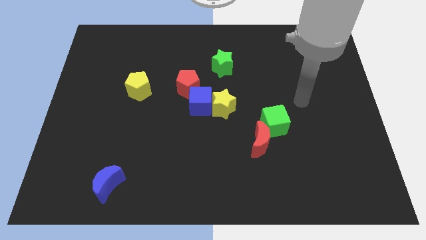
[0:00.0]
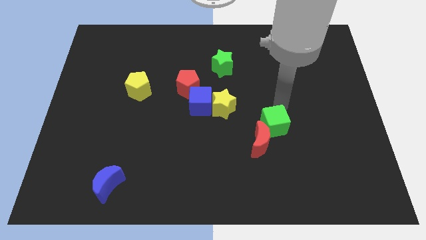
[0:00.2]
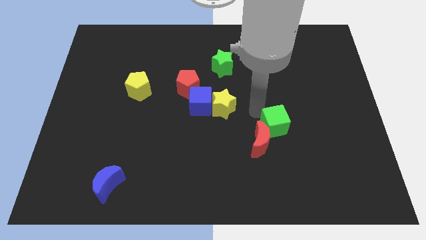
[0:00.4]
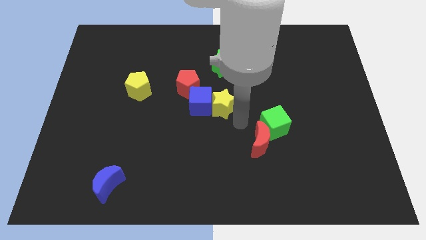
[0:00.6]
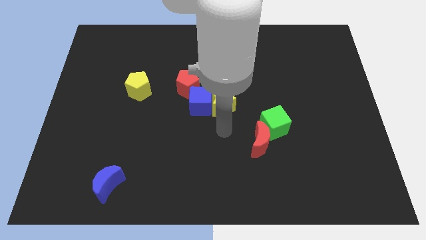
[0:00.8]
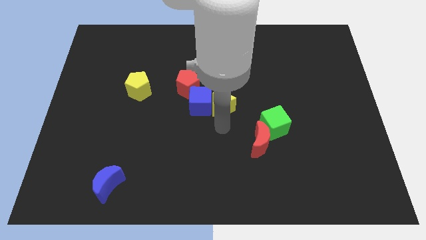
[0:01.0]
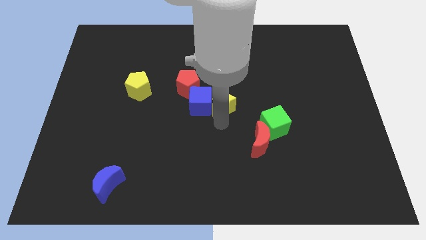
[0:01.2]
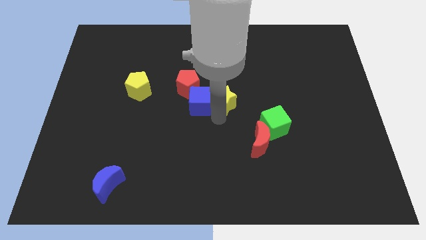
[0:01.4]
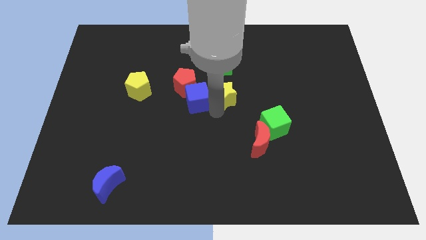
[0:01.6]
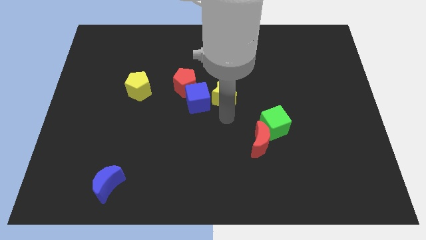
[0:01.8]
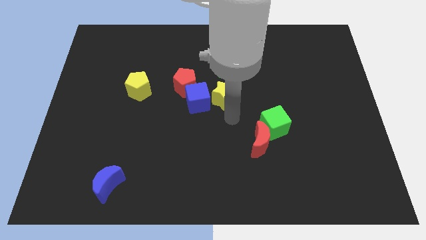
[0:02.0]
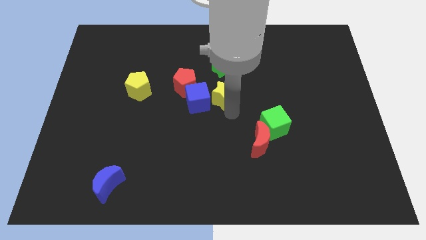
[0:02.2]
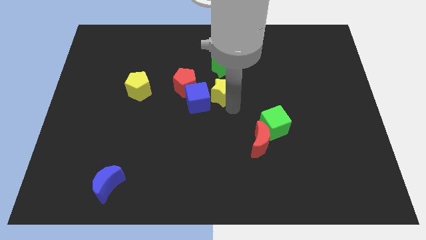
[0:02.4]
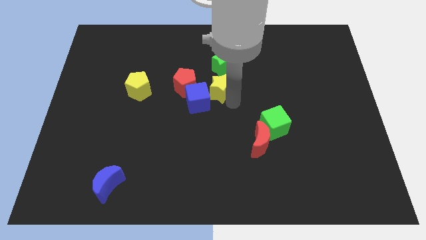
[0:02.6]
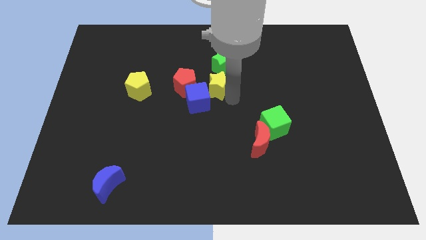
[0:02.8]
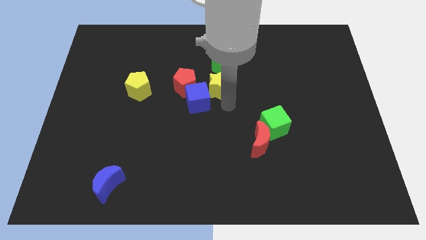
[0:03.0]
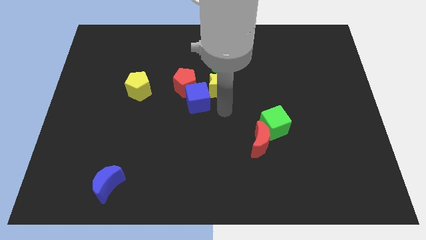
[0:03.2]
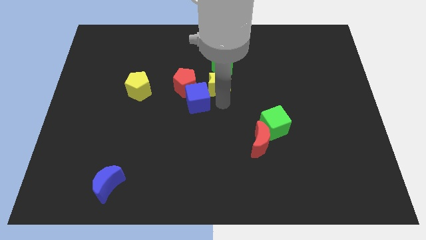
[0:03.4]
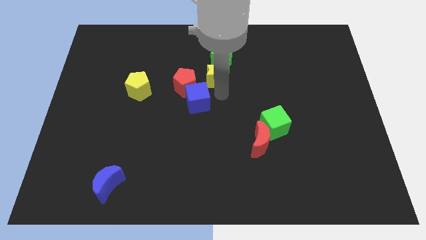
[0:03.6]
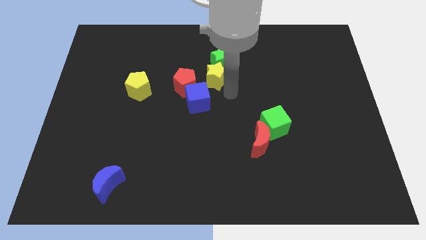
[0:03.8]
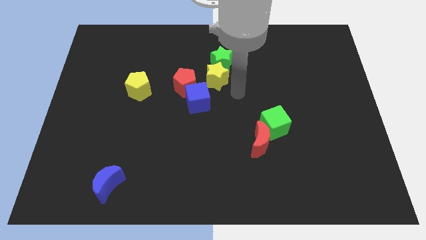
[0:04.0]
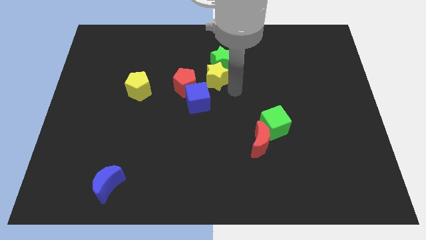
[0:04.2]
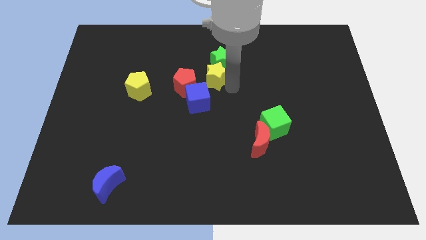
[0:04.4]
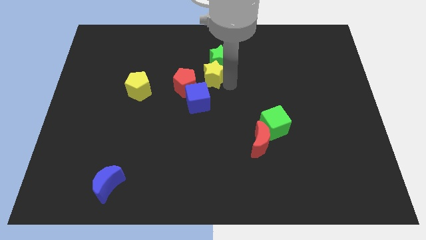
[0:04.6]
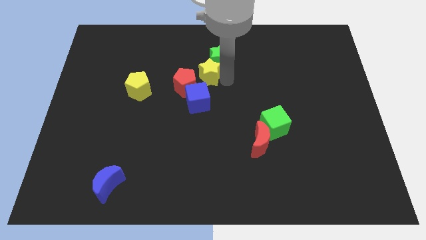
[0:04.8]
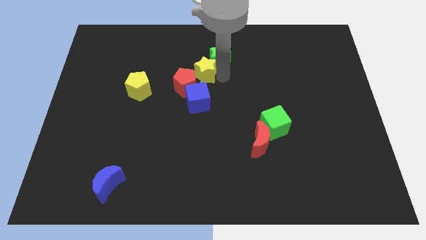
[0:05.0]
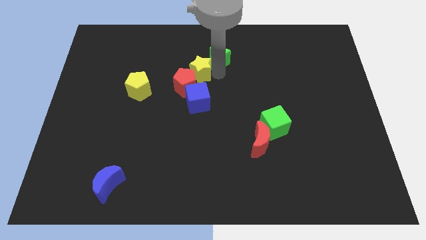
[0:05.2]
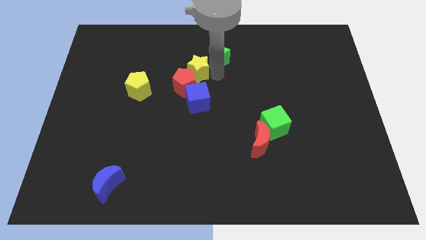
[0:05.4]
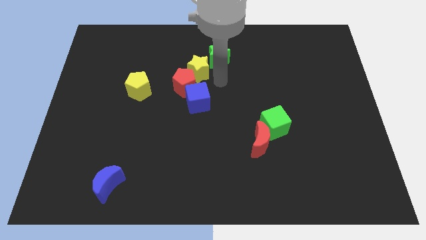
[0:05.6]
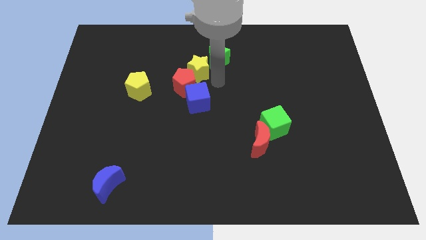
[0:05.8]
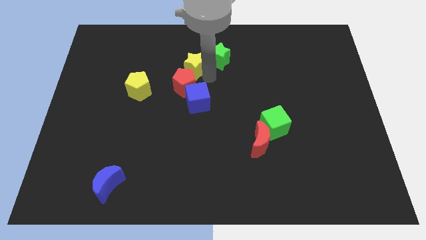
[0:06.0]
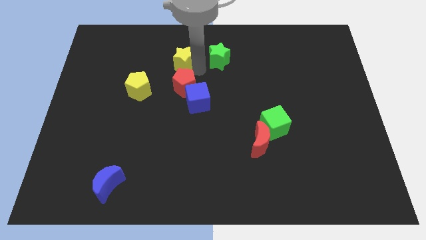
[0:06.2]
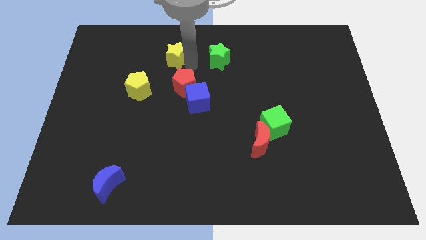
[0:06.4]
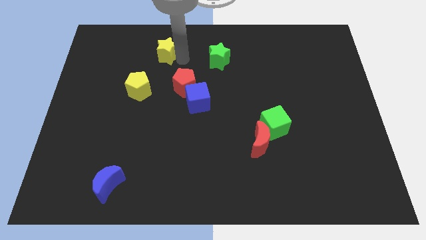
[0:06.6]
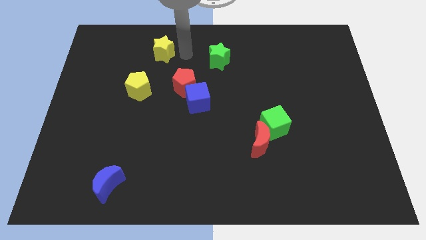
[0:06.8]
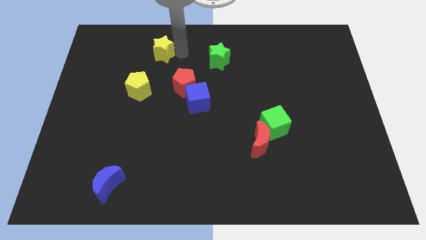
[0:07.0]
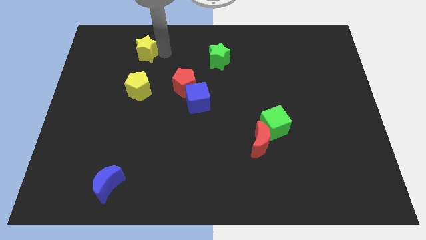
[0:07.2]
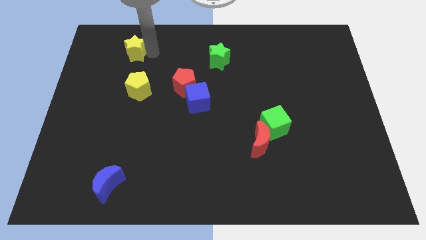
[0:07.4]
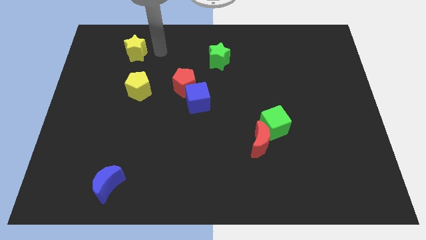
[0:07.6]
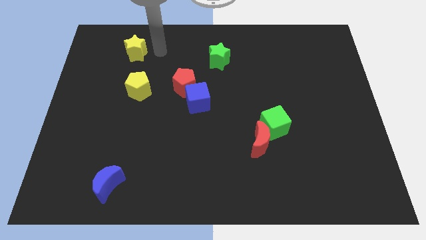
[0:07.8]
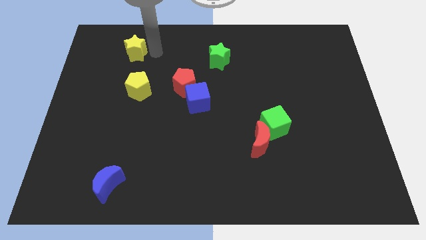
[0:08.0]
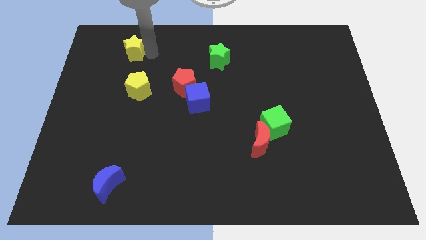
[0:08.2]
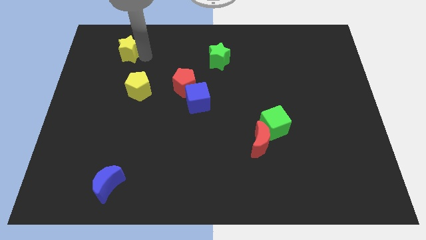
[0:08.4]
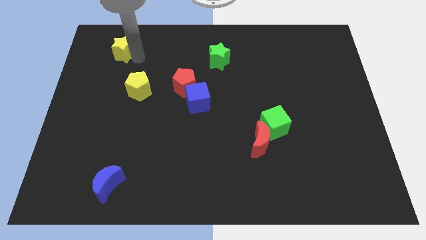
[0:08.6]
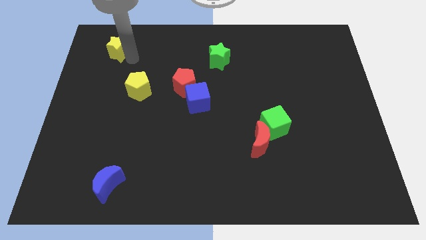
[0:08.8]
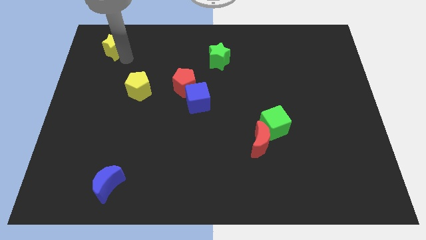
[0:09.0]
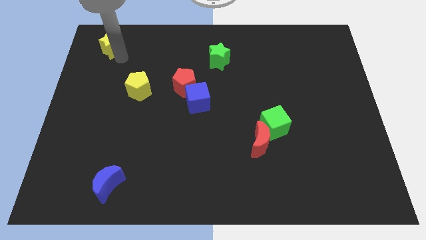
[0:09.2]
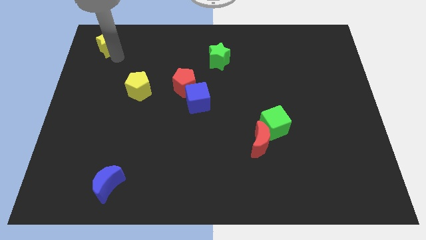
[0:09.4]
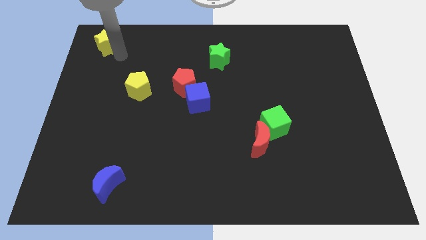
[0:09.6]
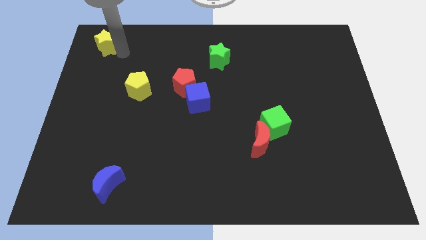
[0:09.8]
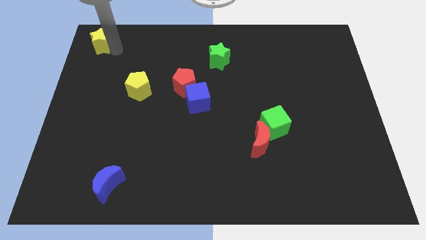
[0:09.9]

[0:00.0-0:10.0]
slide the yellow star to the top left of the board

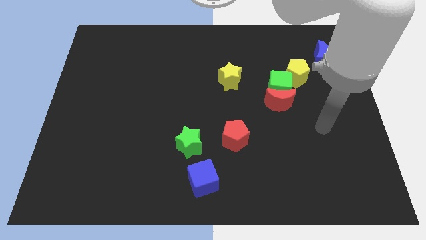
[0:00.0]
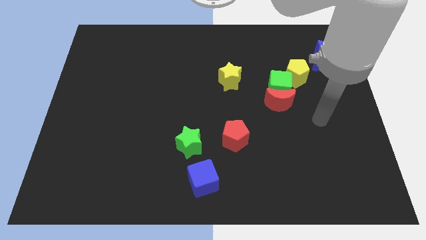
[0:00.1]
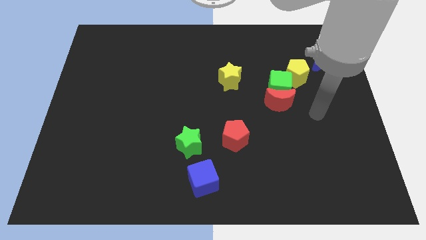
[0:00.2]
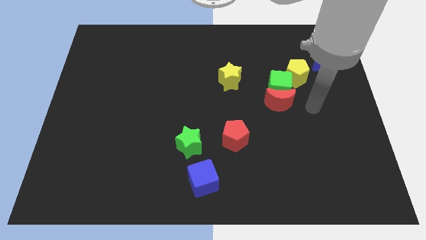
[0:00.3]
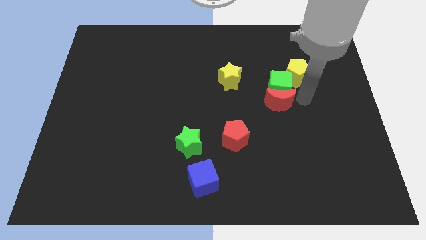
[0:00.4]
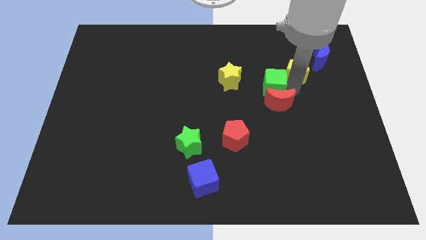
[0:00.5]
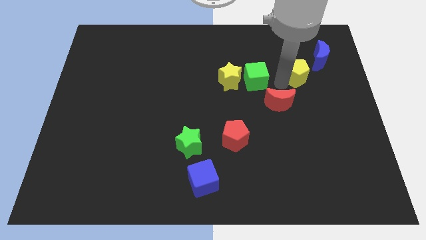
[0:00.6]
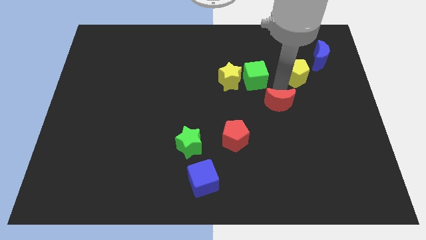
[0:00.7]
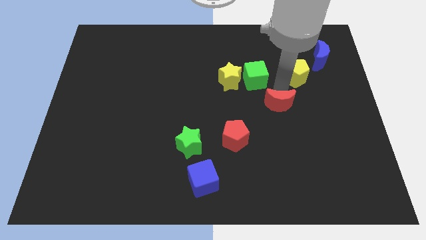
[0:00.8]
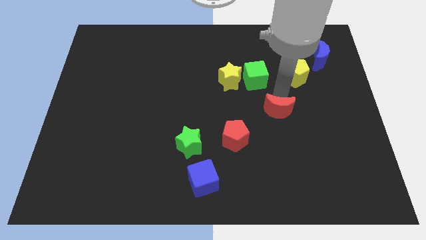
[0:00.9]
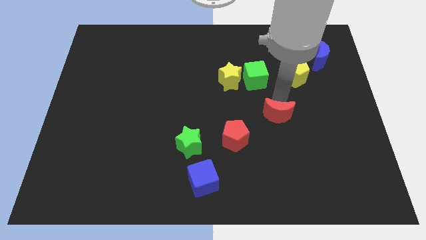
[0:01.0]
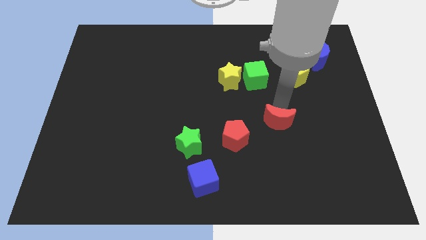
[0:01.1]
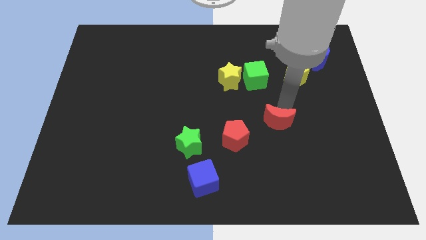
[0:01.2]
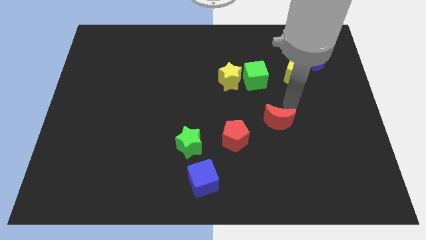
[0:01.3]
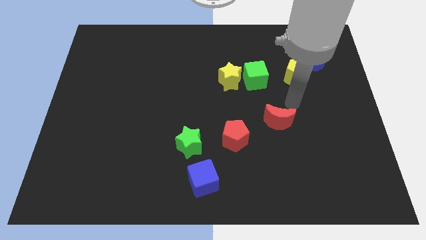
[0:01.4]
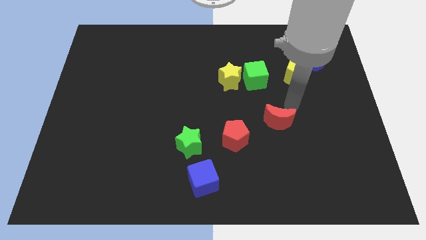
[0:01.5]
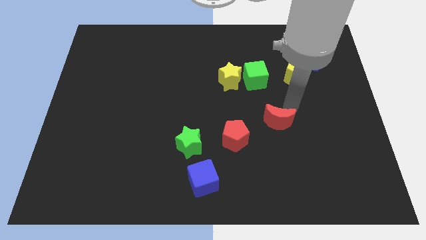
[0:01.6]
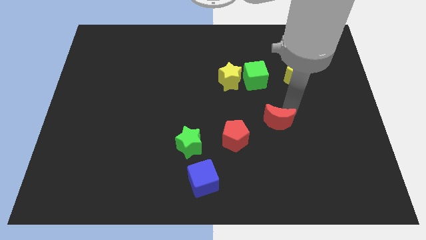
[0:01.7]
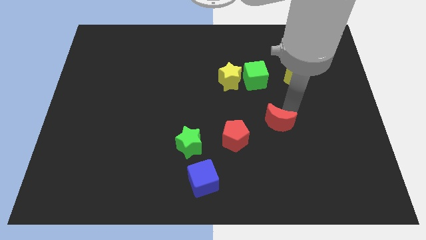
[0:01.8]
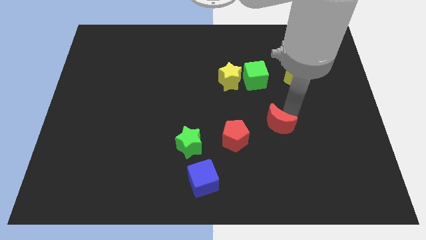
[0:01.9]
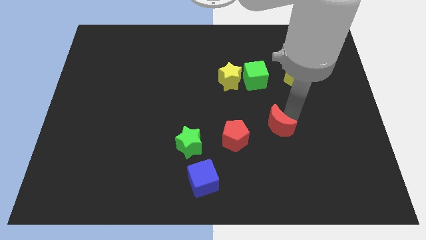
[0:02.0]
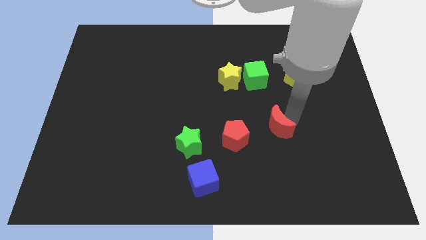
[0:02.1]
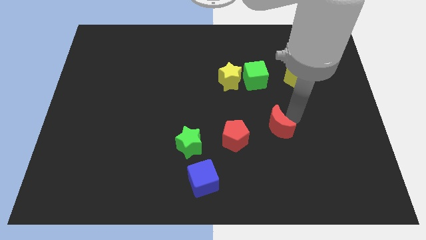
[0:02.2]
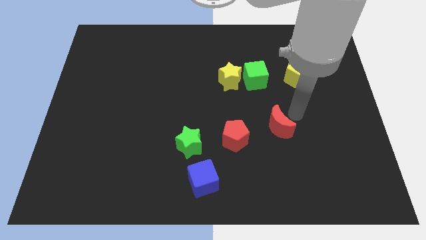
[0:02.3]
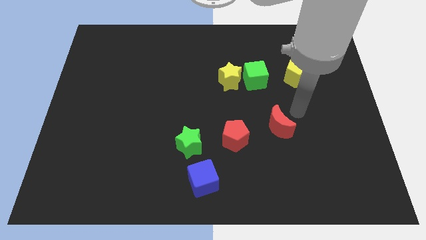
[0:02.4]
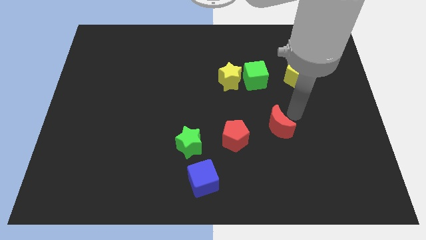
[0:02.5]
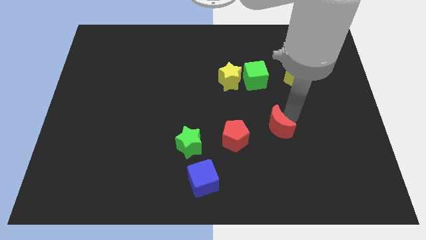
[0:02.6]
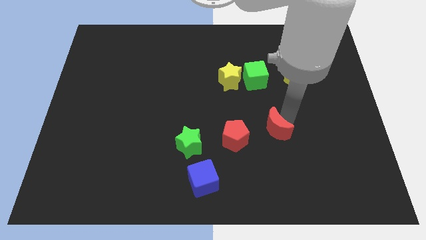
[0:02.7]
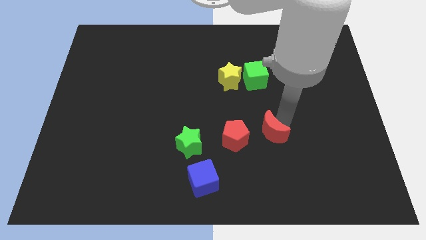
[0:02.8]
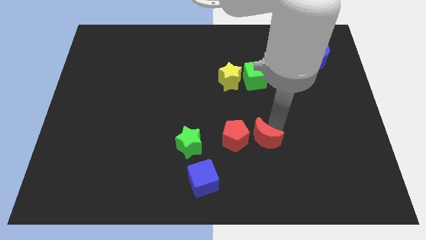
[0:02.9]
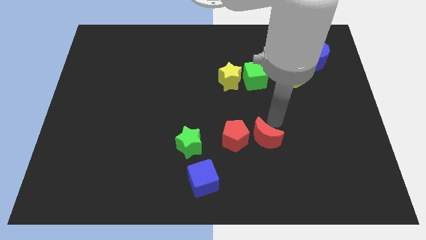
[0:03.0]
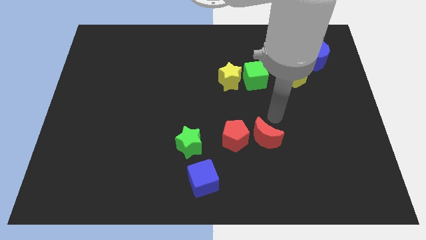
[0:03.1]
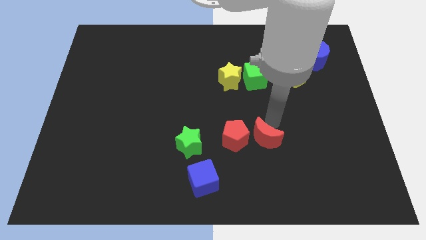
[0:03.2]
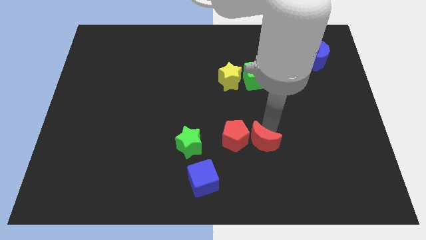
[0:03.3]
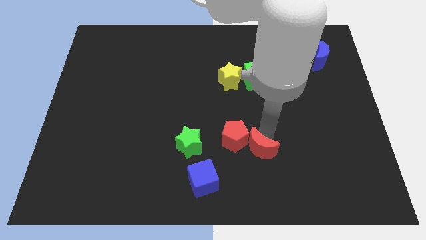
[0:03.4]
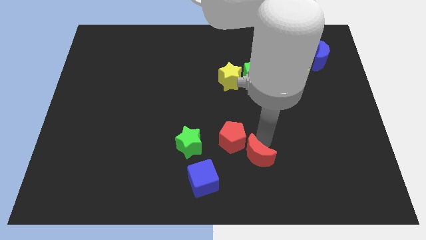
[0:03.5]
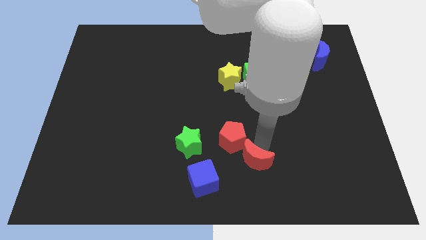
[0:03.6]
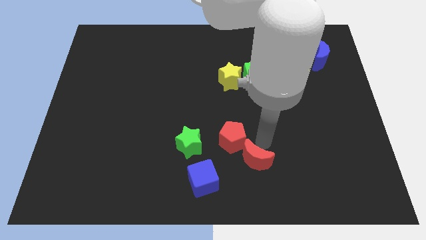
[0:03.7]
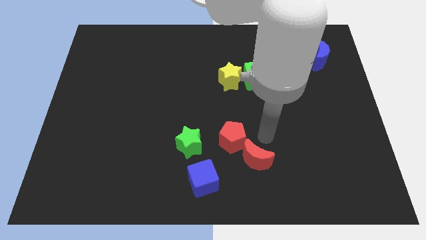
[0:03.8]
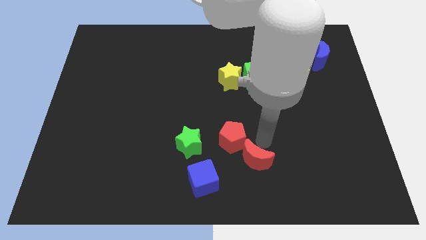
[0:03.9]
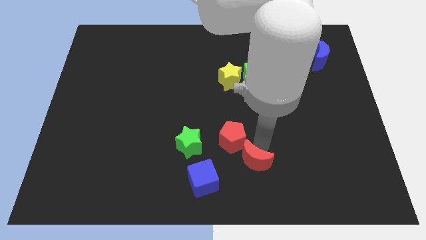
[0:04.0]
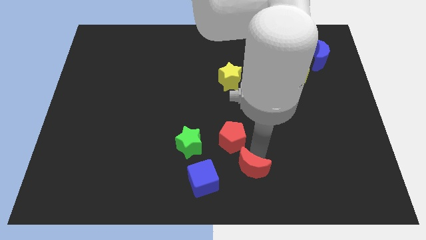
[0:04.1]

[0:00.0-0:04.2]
move the red moon to the bottom side
